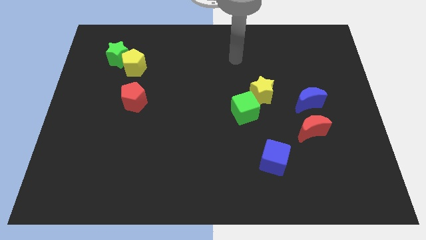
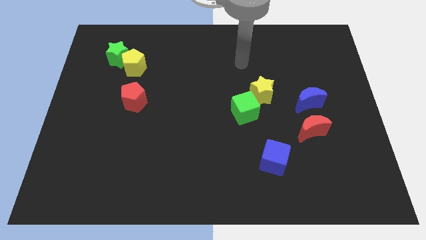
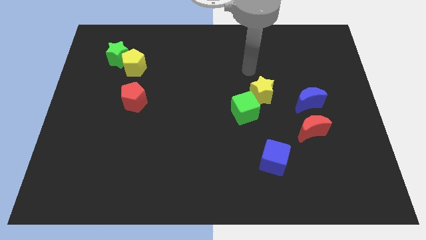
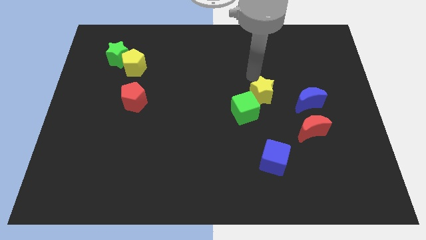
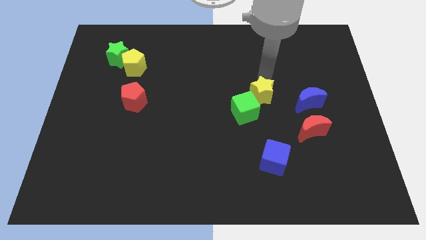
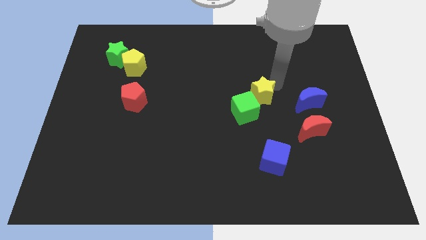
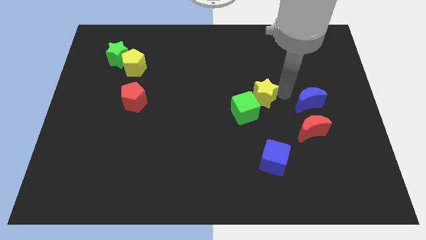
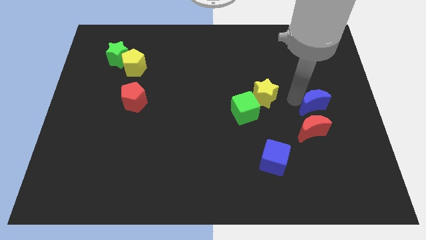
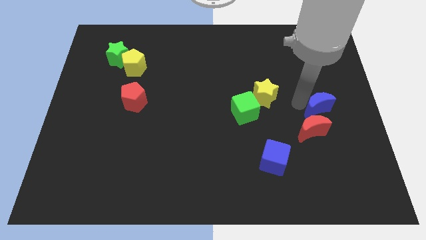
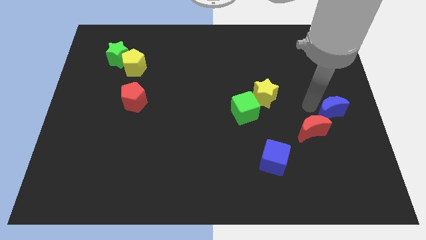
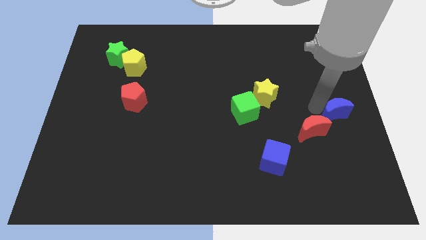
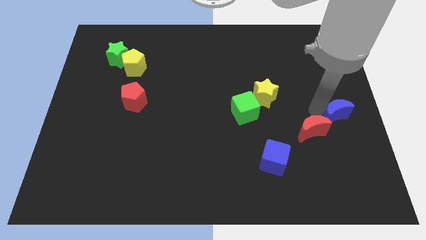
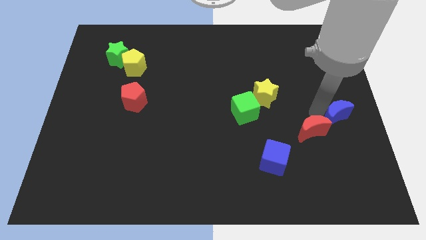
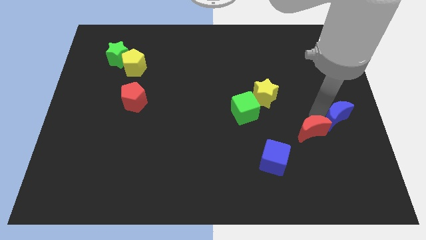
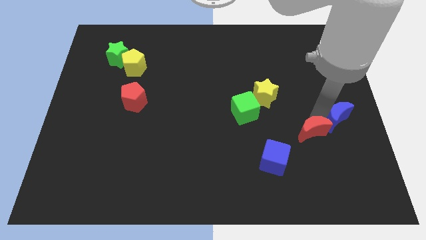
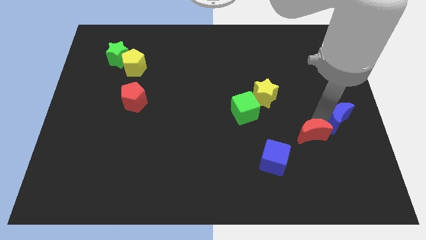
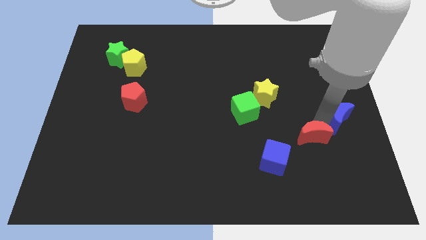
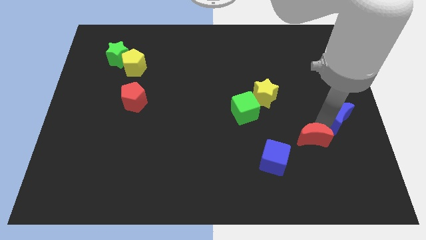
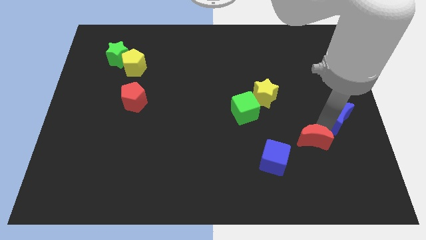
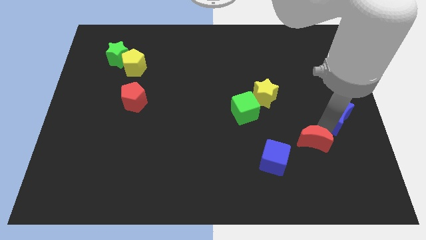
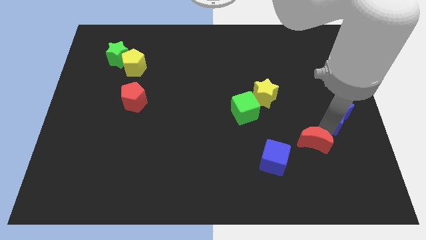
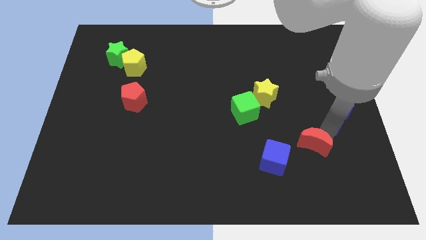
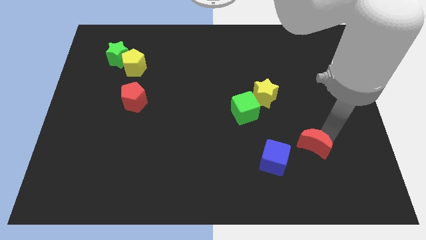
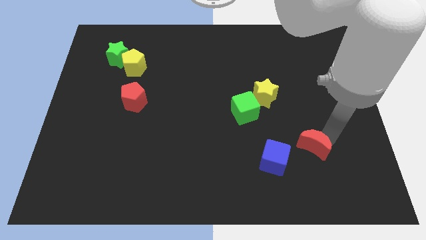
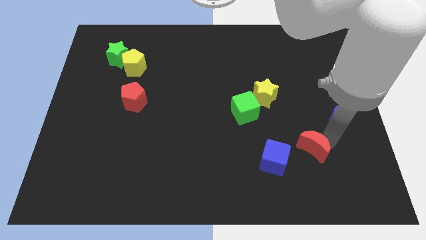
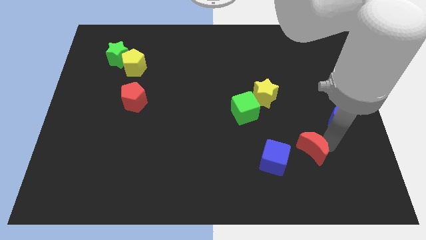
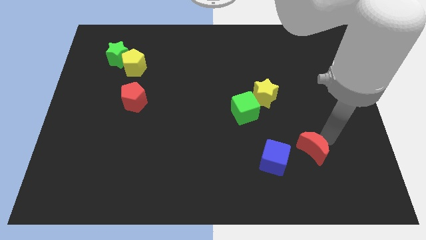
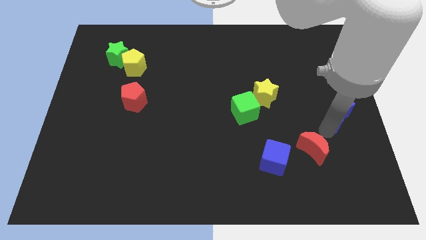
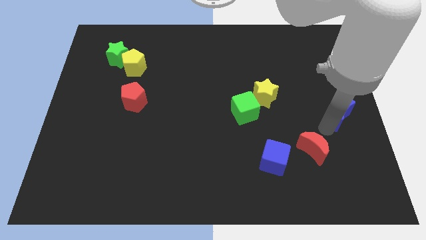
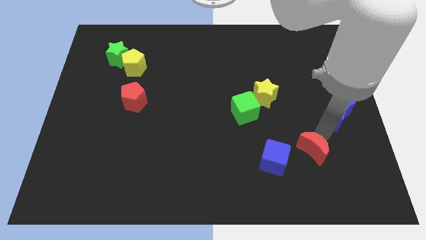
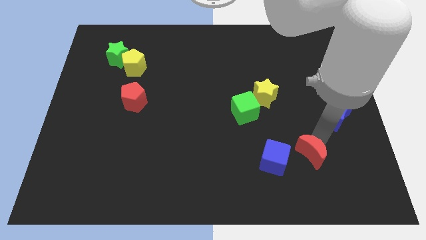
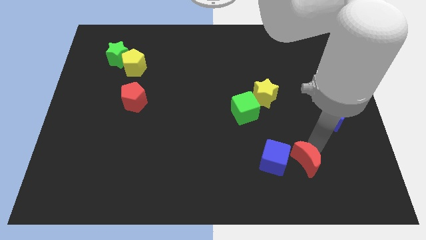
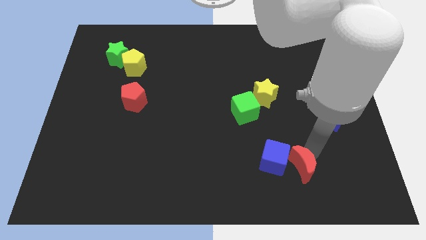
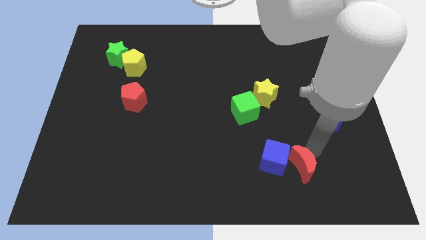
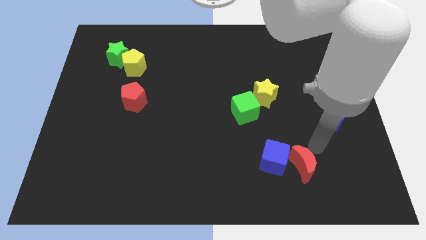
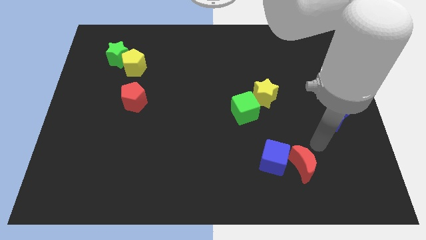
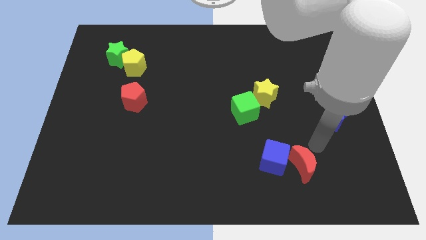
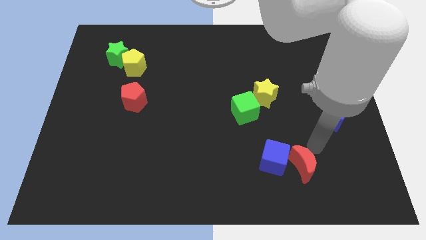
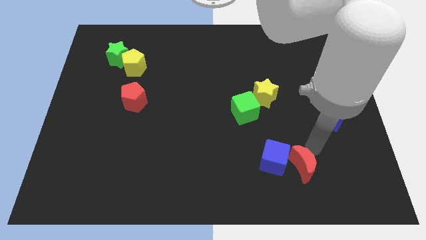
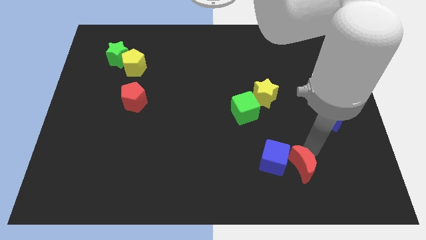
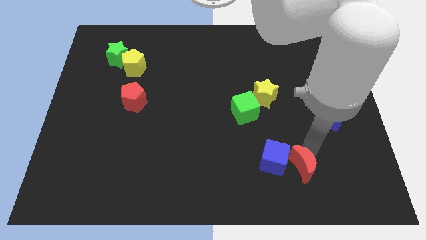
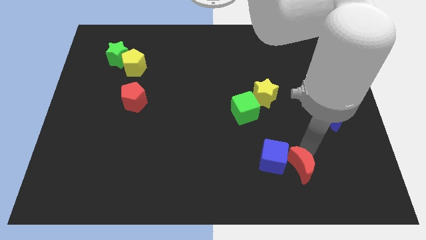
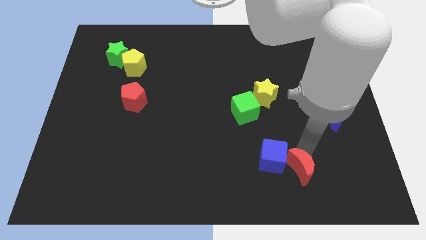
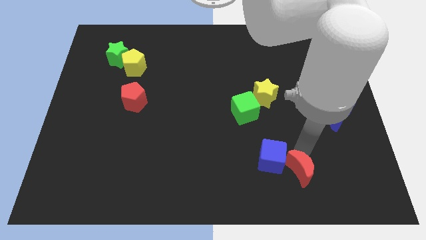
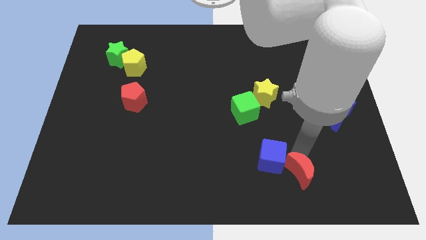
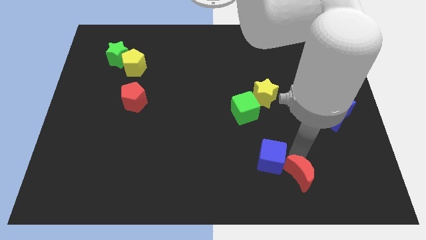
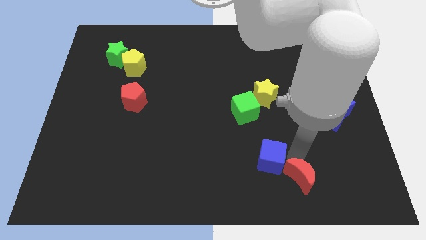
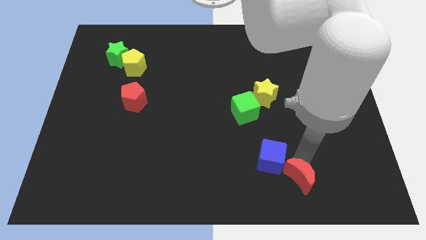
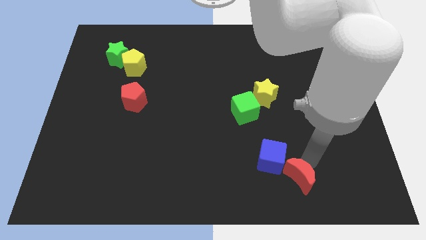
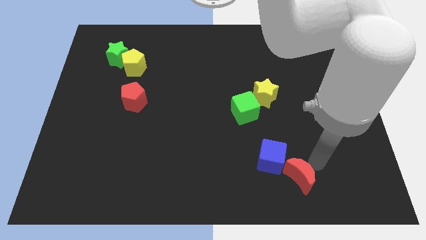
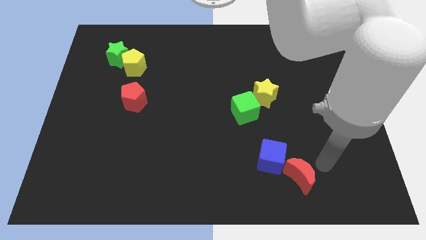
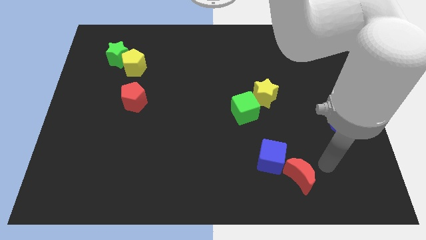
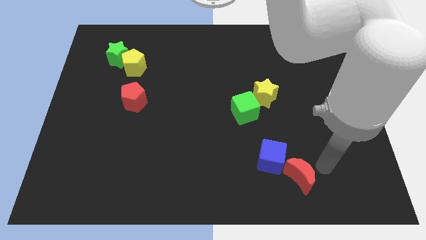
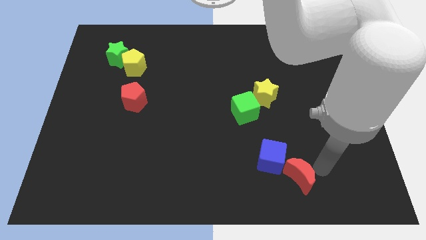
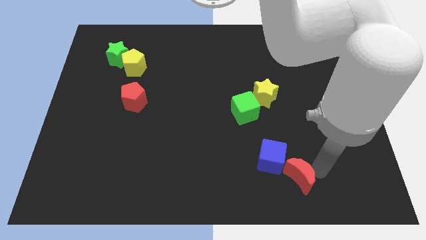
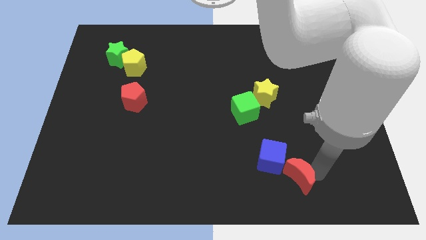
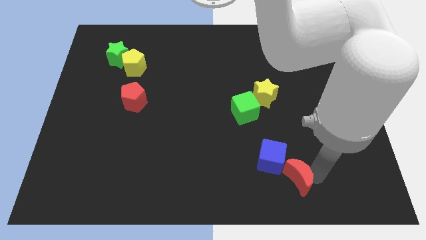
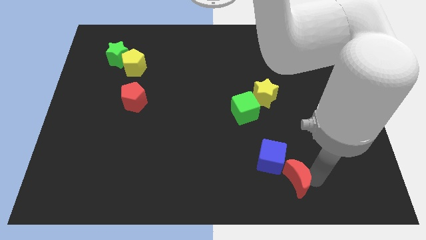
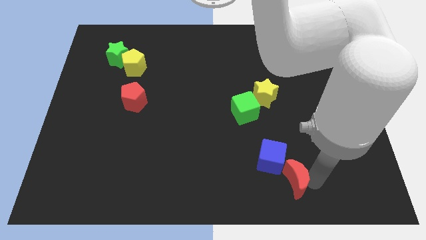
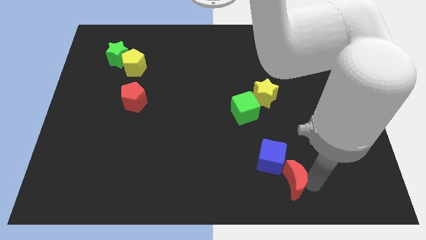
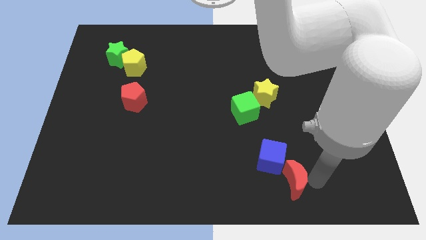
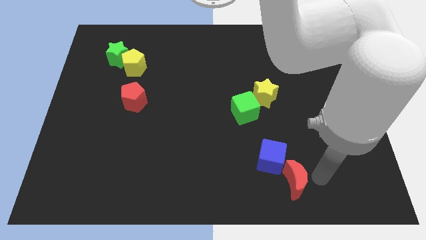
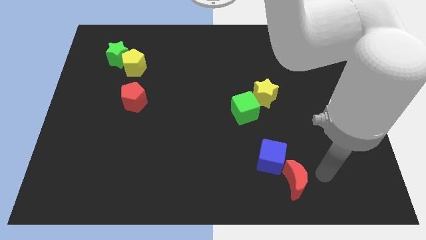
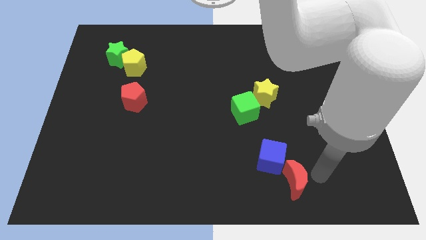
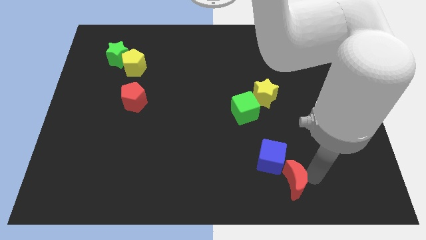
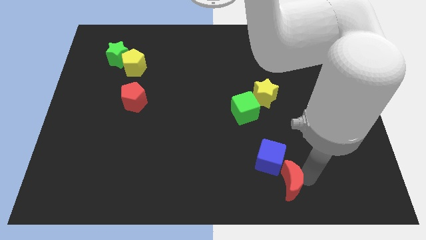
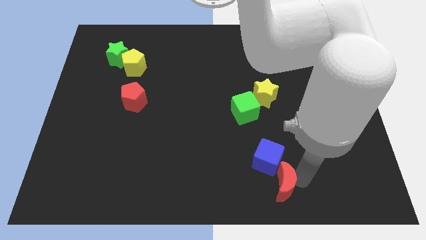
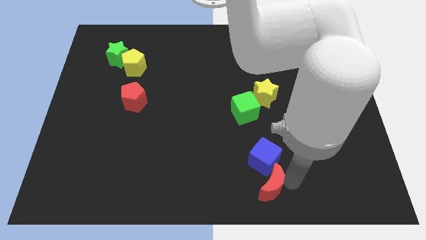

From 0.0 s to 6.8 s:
move the red moon to the bottom side
